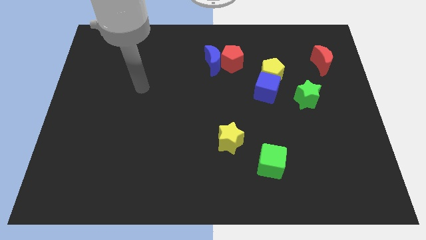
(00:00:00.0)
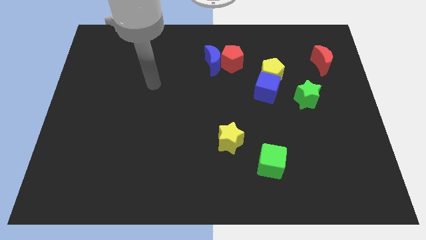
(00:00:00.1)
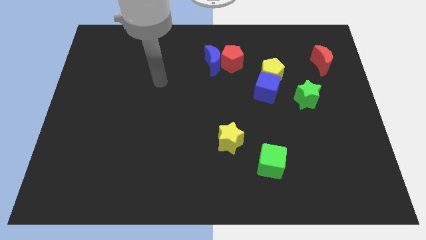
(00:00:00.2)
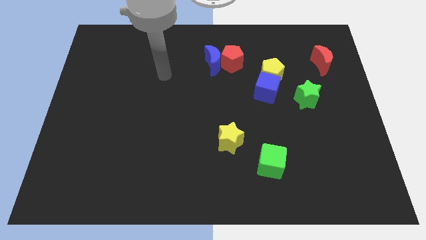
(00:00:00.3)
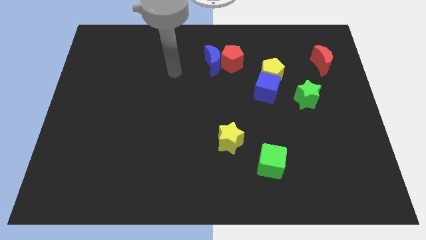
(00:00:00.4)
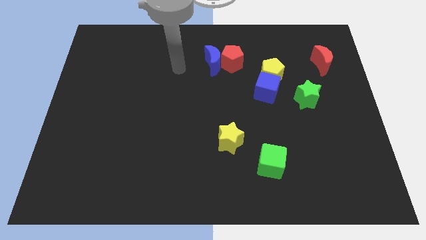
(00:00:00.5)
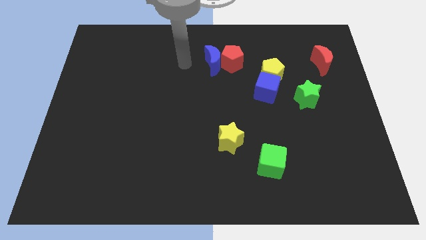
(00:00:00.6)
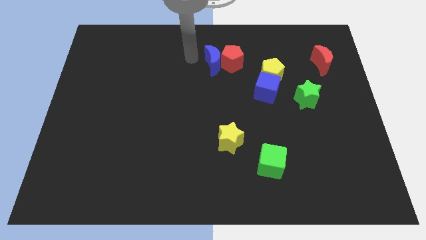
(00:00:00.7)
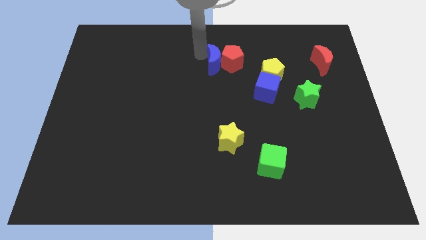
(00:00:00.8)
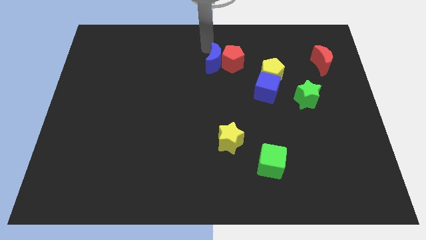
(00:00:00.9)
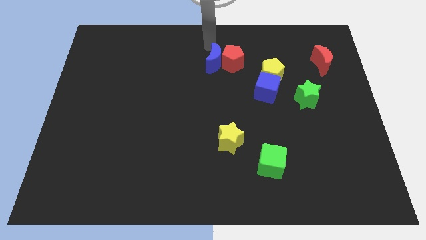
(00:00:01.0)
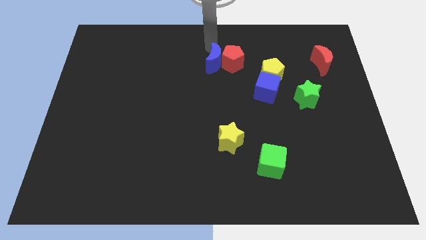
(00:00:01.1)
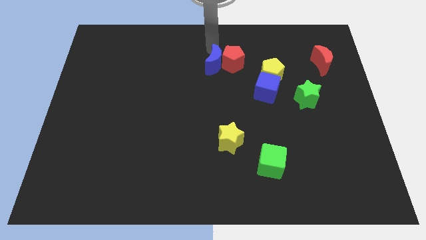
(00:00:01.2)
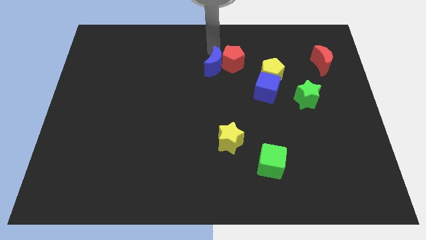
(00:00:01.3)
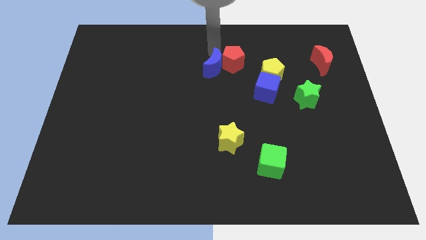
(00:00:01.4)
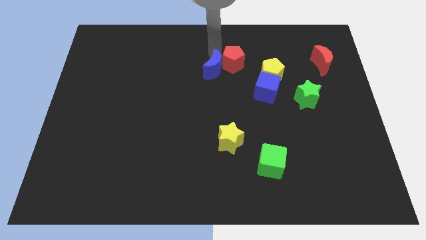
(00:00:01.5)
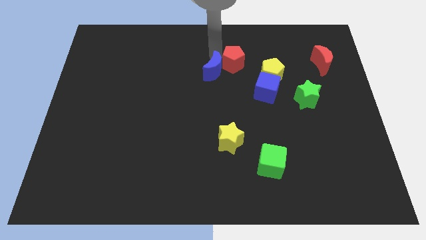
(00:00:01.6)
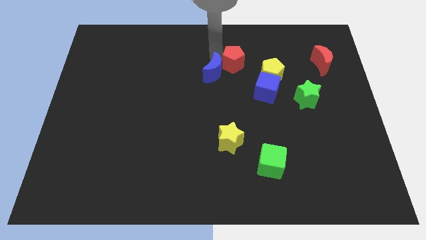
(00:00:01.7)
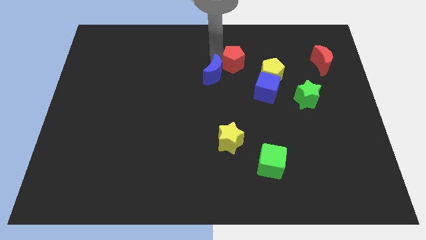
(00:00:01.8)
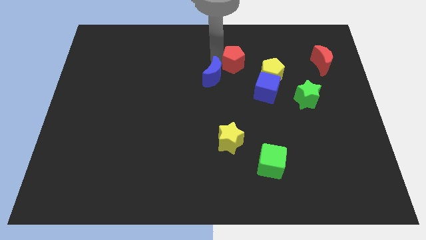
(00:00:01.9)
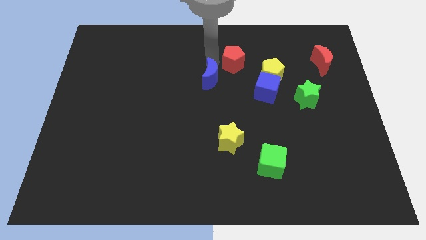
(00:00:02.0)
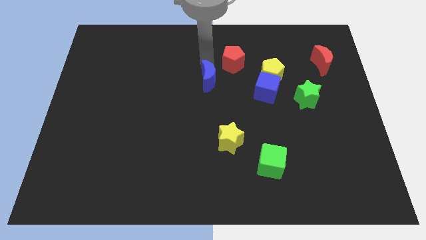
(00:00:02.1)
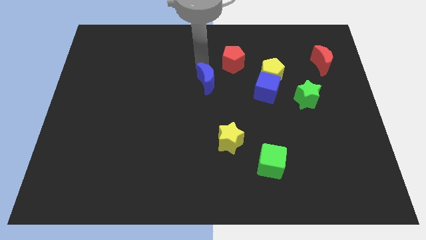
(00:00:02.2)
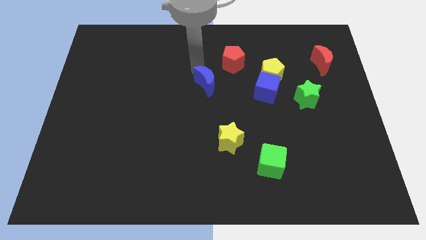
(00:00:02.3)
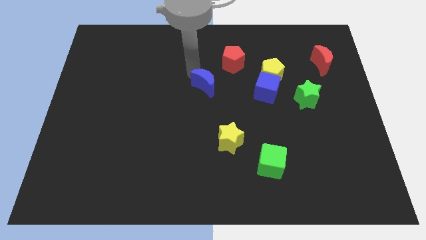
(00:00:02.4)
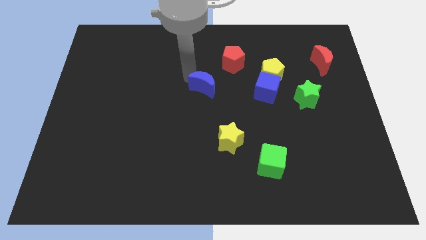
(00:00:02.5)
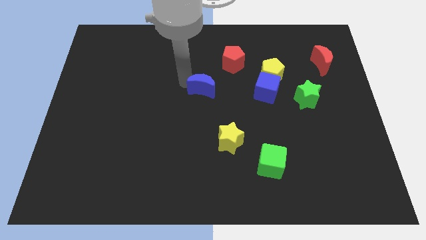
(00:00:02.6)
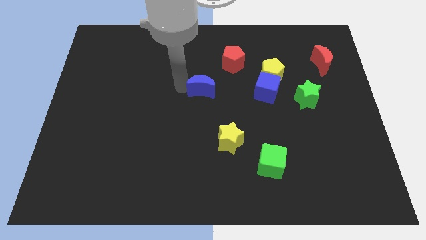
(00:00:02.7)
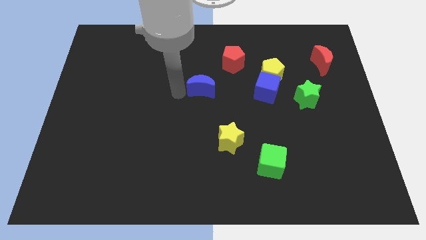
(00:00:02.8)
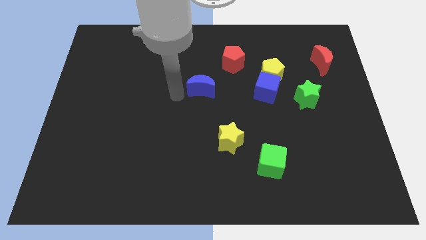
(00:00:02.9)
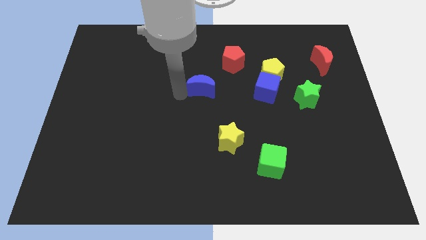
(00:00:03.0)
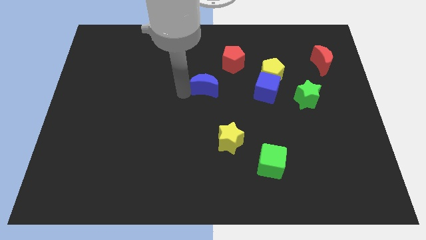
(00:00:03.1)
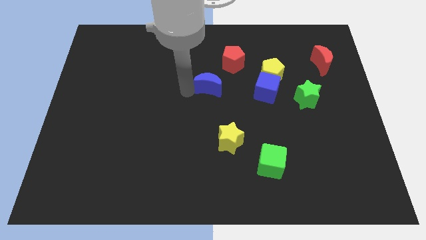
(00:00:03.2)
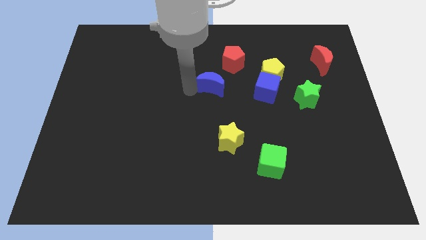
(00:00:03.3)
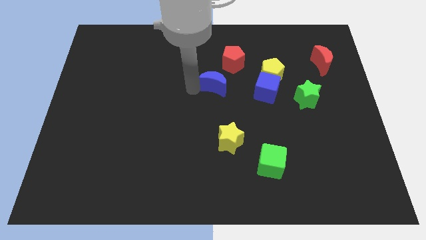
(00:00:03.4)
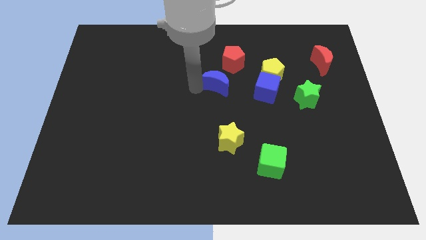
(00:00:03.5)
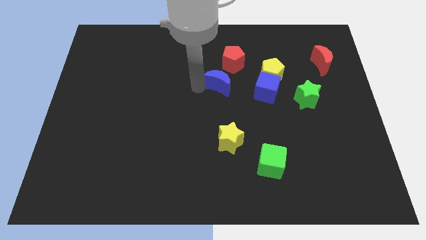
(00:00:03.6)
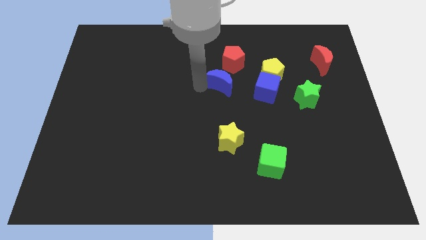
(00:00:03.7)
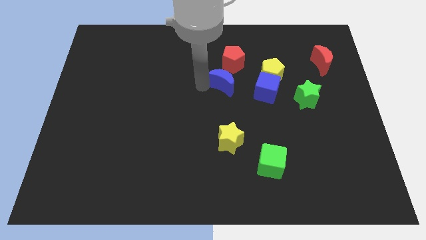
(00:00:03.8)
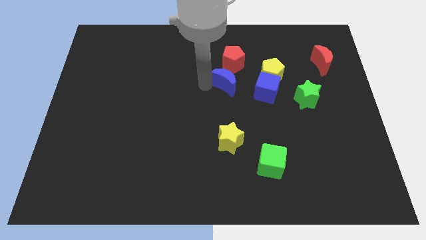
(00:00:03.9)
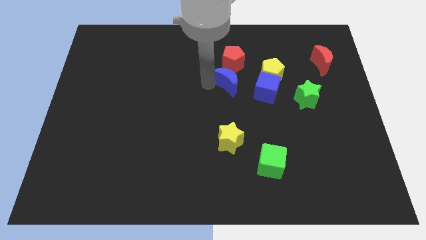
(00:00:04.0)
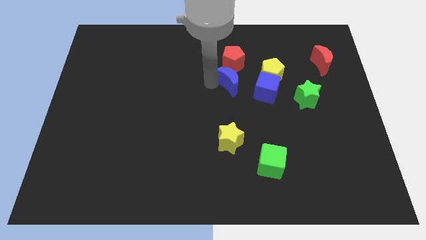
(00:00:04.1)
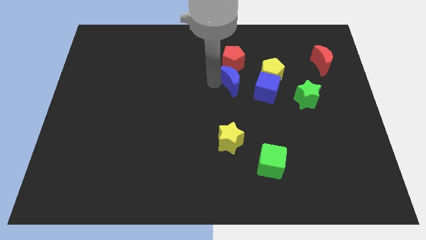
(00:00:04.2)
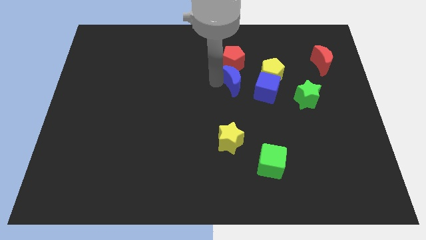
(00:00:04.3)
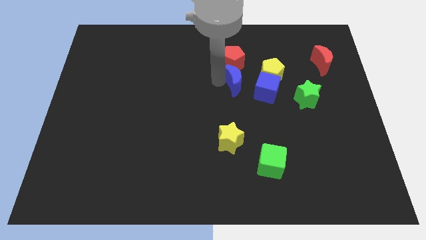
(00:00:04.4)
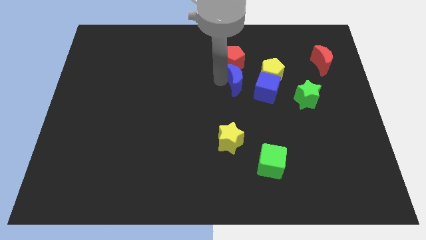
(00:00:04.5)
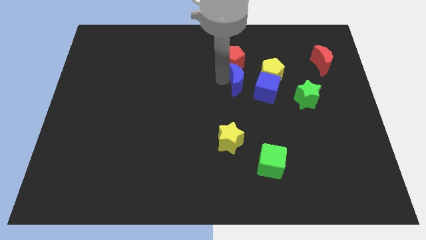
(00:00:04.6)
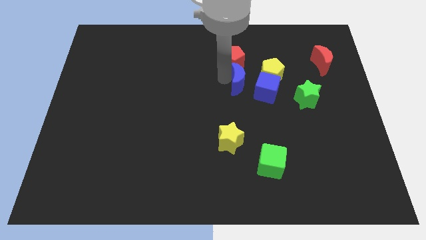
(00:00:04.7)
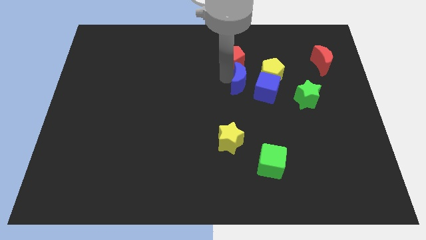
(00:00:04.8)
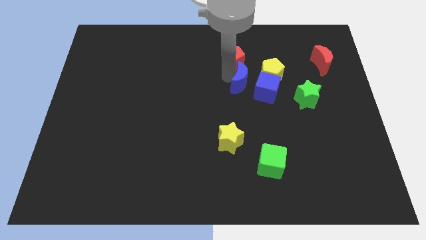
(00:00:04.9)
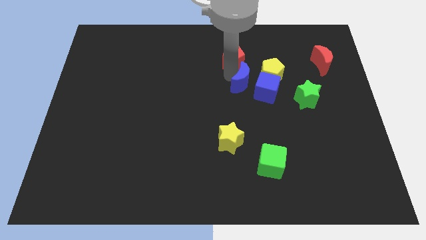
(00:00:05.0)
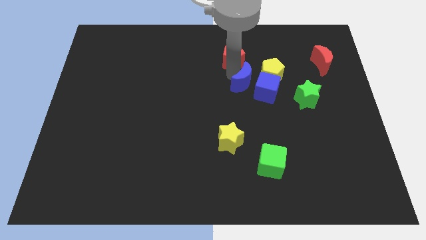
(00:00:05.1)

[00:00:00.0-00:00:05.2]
put the blue moon towards the blue cube

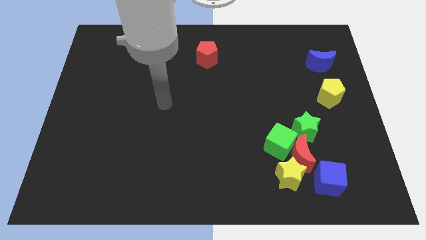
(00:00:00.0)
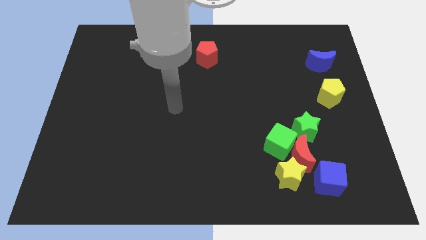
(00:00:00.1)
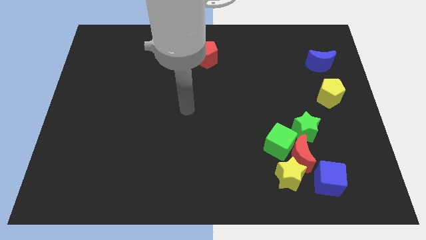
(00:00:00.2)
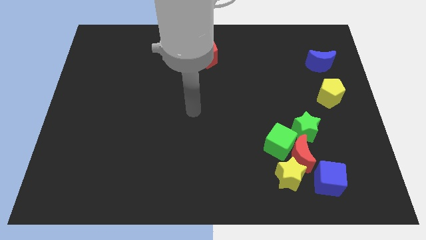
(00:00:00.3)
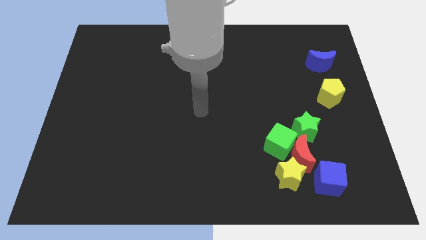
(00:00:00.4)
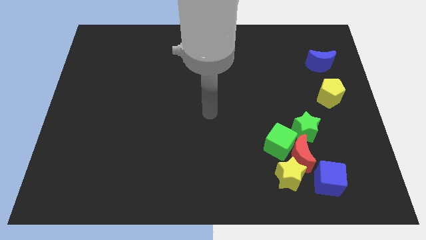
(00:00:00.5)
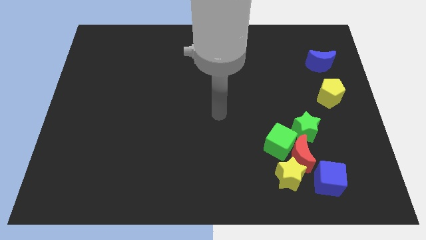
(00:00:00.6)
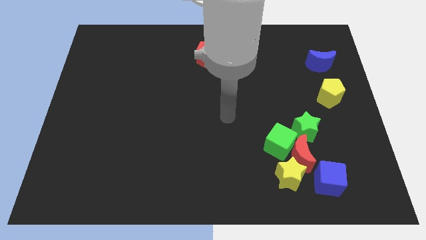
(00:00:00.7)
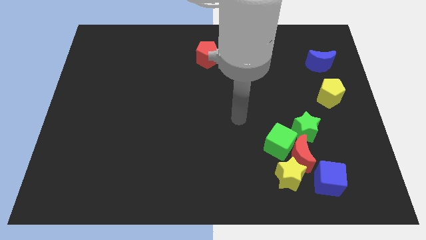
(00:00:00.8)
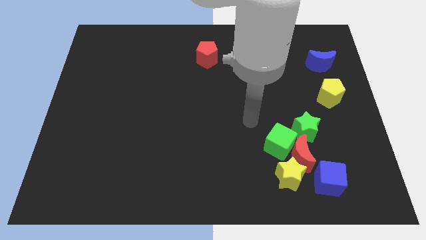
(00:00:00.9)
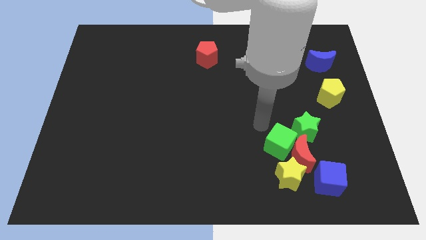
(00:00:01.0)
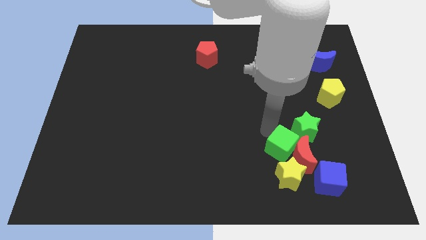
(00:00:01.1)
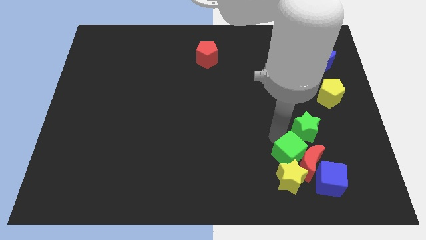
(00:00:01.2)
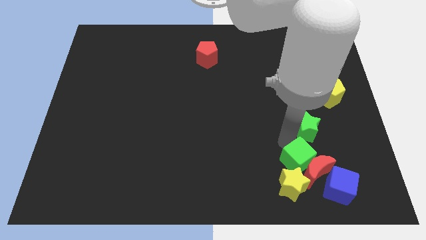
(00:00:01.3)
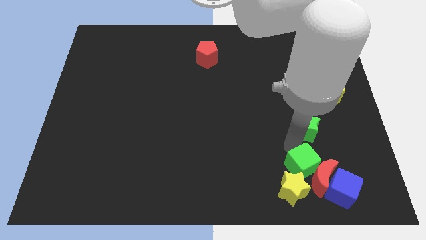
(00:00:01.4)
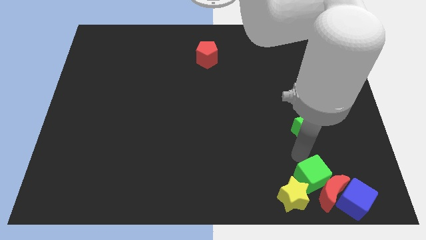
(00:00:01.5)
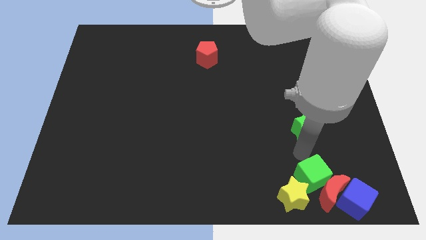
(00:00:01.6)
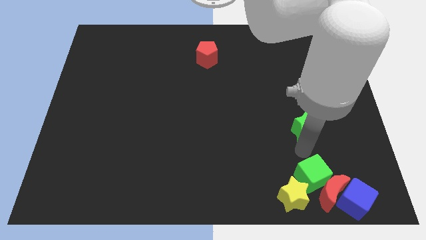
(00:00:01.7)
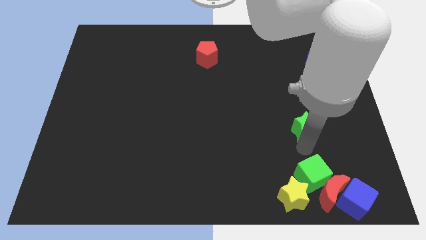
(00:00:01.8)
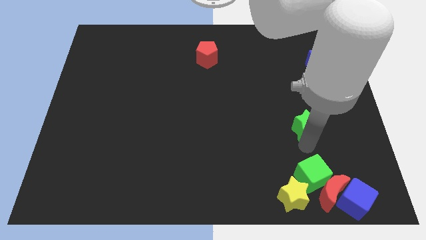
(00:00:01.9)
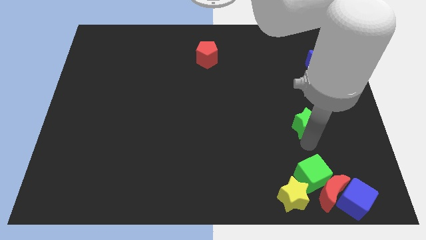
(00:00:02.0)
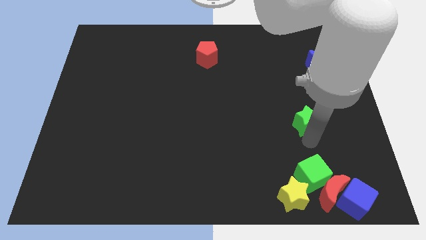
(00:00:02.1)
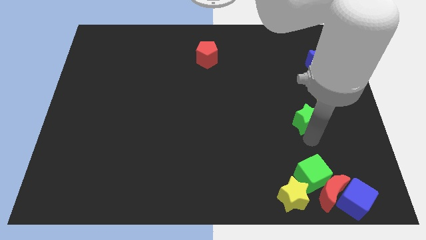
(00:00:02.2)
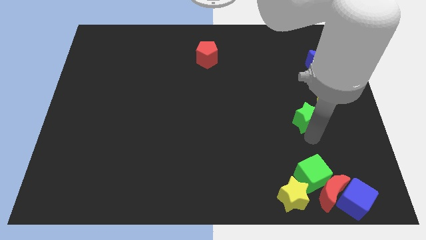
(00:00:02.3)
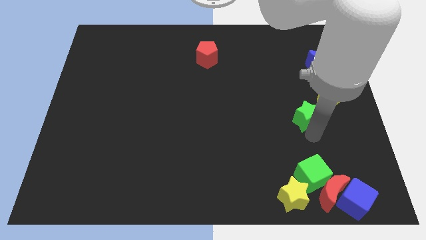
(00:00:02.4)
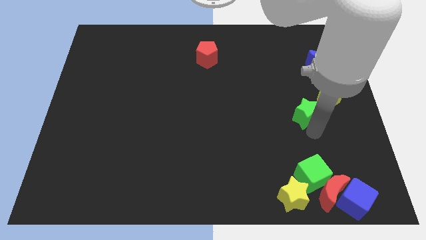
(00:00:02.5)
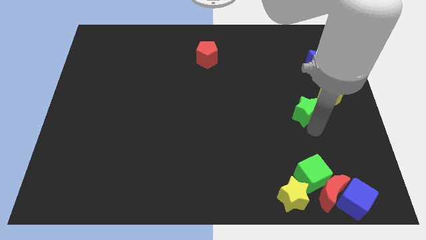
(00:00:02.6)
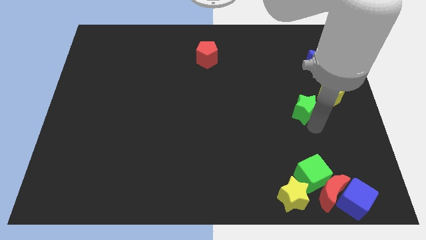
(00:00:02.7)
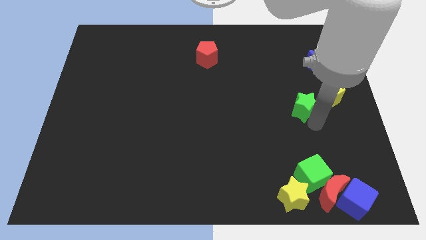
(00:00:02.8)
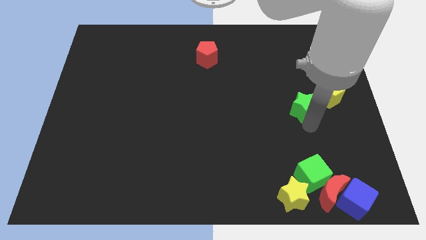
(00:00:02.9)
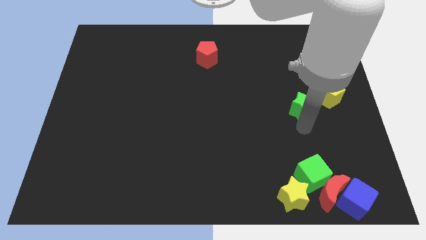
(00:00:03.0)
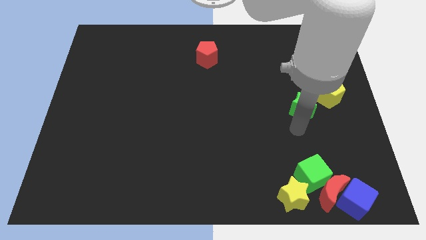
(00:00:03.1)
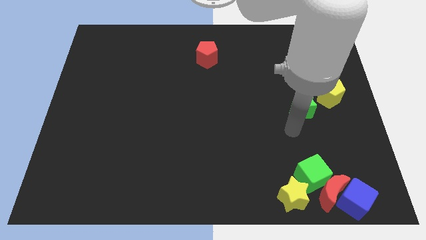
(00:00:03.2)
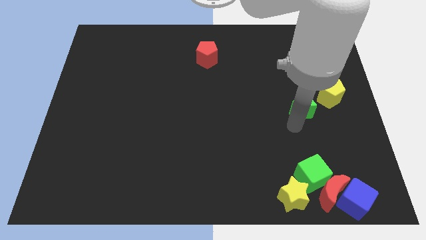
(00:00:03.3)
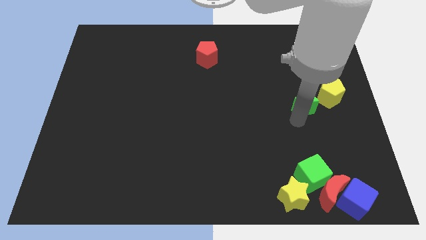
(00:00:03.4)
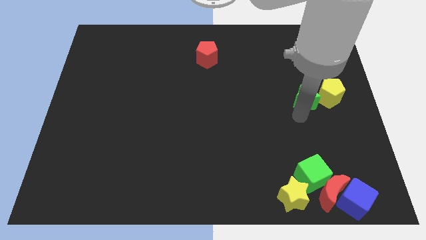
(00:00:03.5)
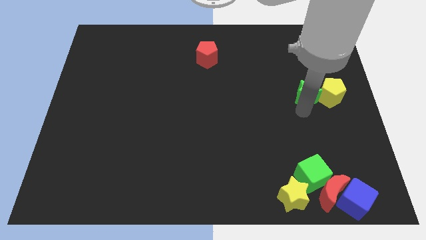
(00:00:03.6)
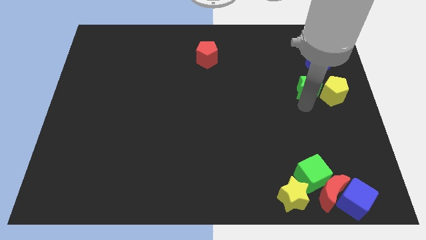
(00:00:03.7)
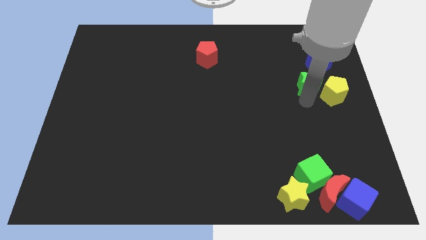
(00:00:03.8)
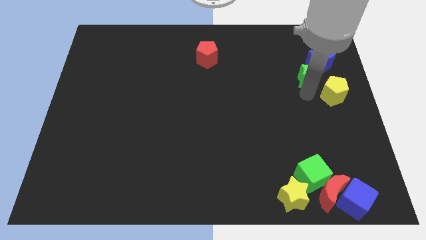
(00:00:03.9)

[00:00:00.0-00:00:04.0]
push the green star to the blue moon
